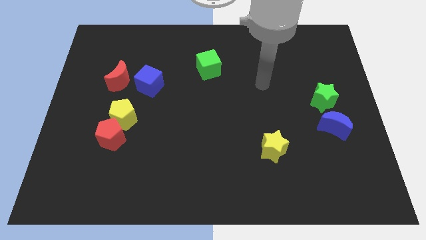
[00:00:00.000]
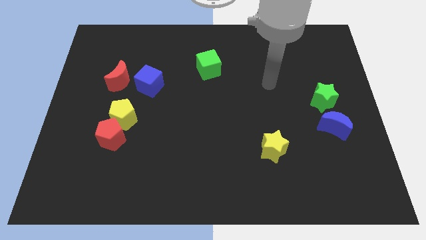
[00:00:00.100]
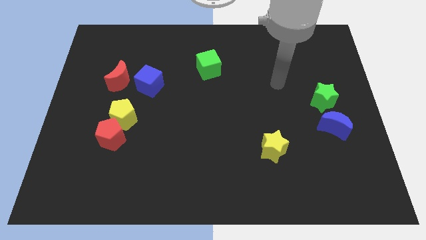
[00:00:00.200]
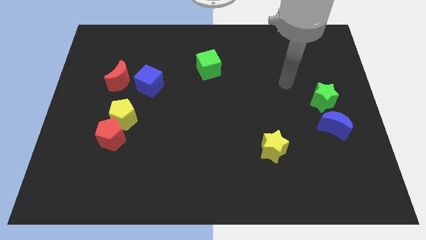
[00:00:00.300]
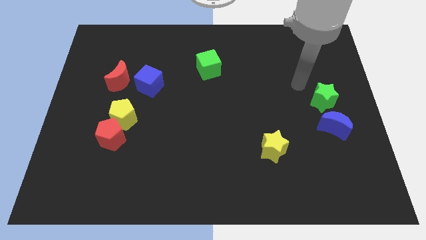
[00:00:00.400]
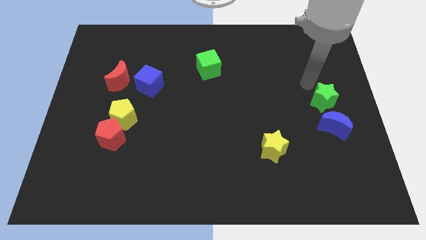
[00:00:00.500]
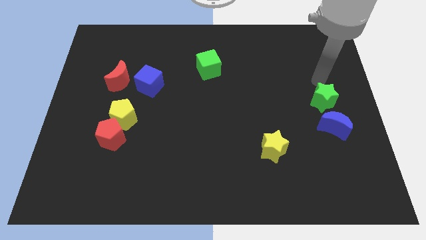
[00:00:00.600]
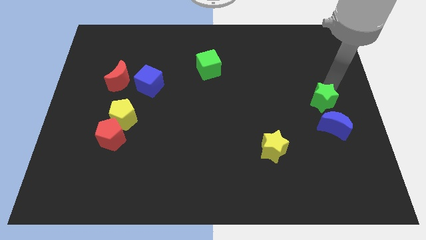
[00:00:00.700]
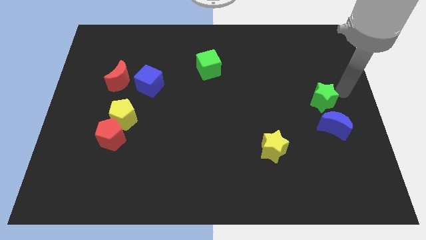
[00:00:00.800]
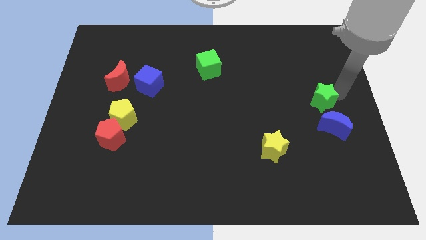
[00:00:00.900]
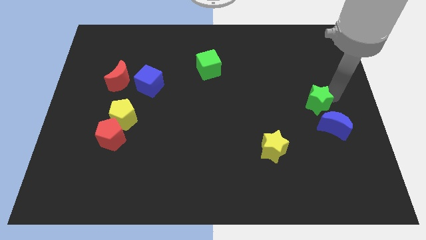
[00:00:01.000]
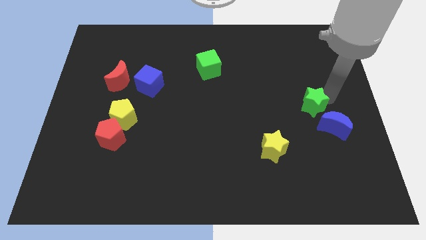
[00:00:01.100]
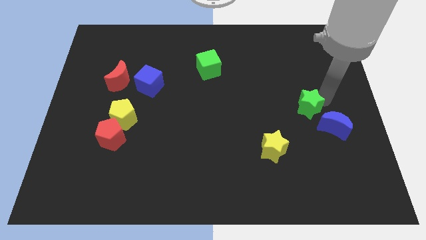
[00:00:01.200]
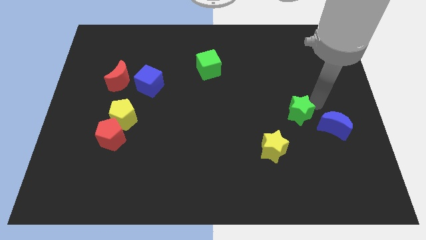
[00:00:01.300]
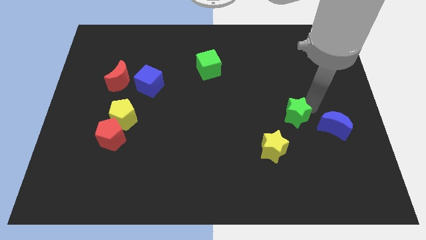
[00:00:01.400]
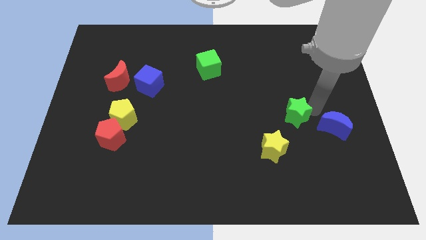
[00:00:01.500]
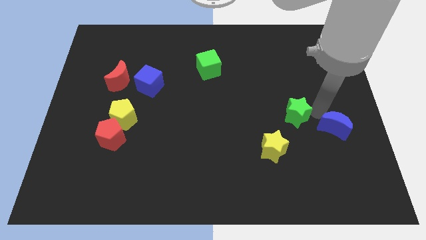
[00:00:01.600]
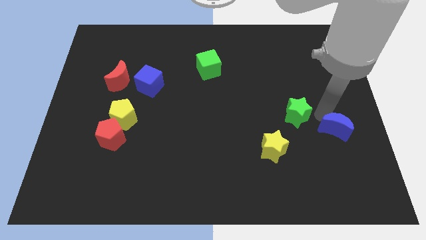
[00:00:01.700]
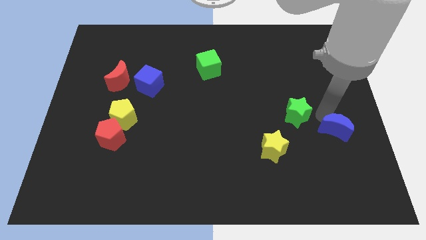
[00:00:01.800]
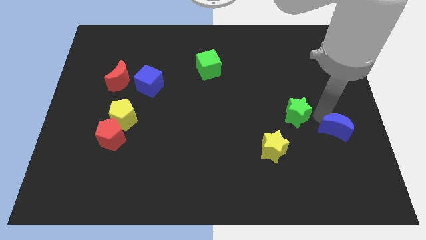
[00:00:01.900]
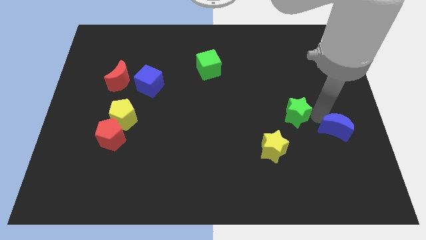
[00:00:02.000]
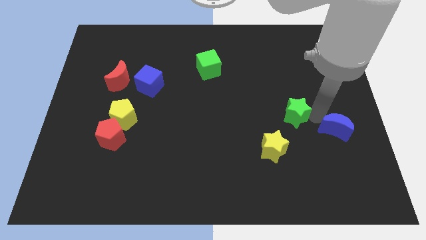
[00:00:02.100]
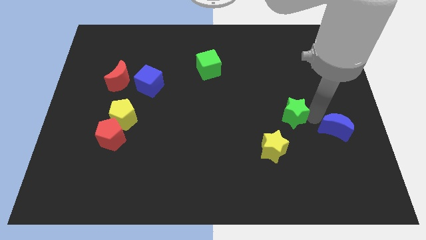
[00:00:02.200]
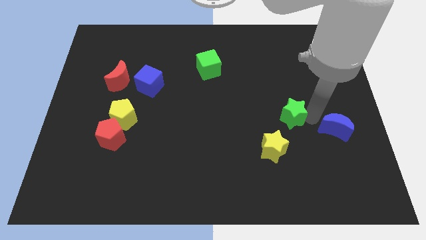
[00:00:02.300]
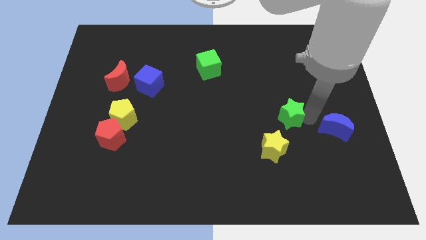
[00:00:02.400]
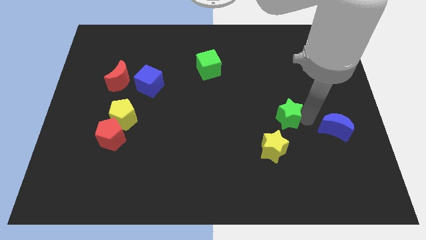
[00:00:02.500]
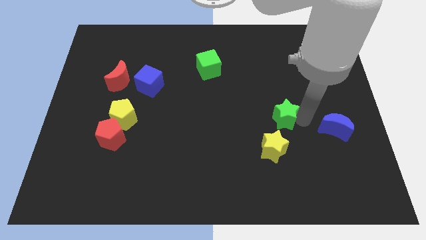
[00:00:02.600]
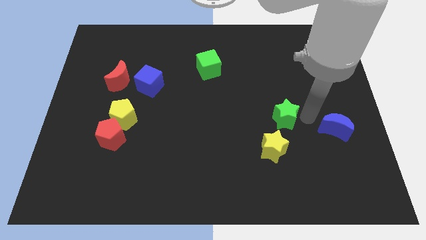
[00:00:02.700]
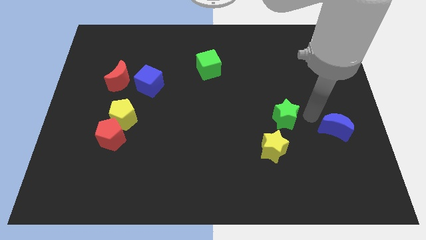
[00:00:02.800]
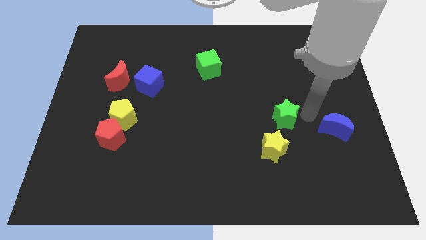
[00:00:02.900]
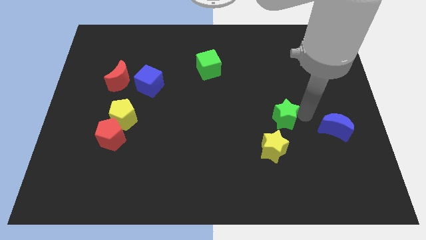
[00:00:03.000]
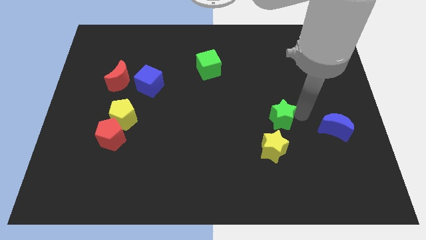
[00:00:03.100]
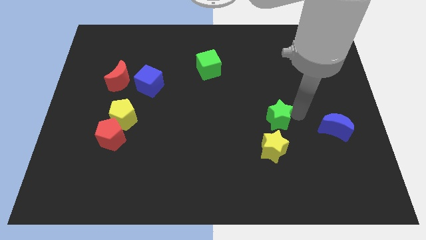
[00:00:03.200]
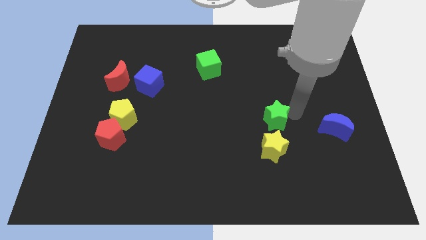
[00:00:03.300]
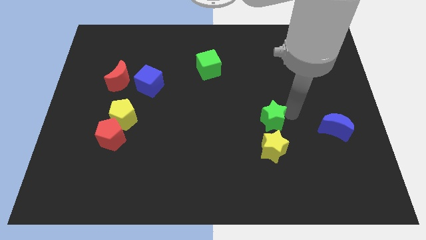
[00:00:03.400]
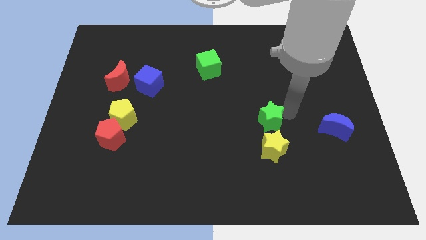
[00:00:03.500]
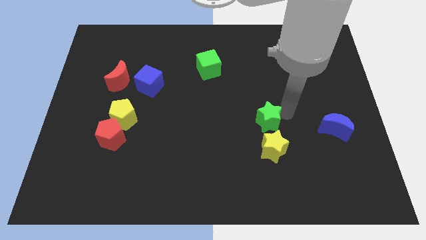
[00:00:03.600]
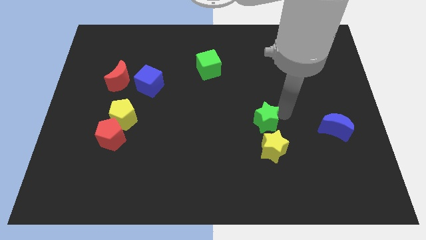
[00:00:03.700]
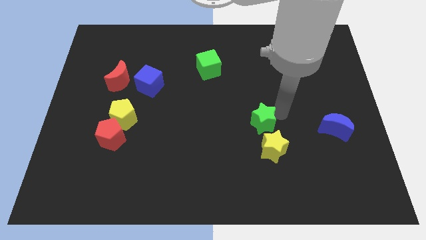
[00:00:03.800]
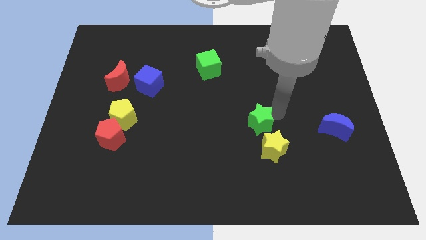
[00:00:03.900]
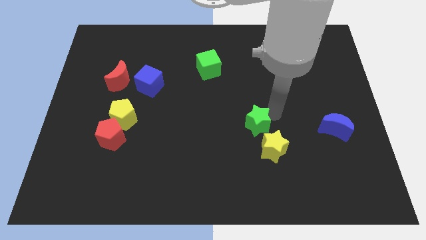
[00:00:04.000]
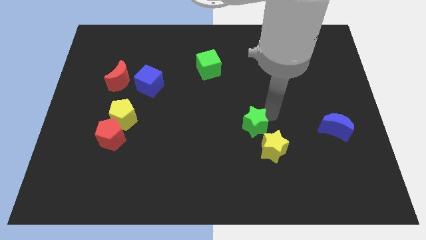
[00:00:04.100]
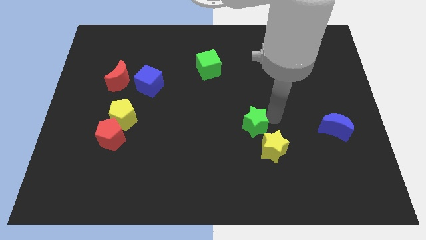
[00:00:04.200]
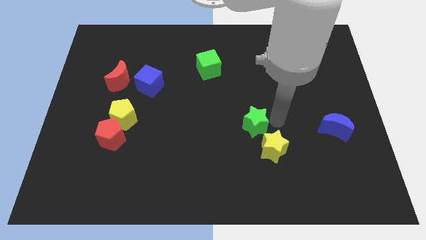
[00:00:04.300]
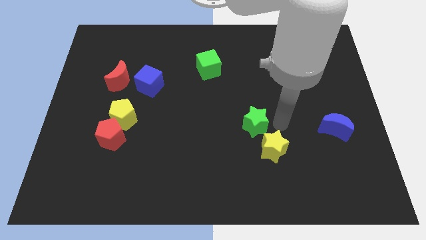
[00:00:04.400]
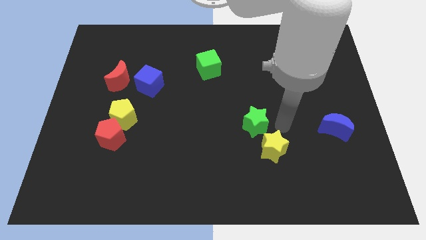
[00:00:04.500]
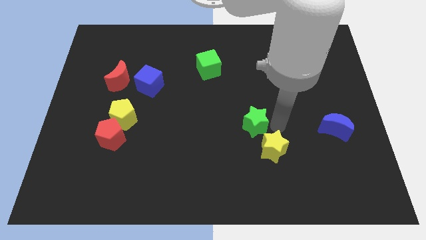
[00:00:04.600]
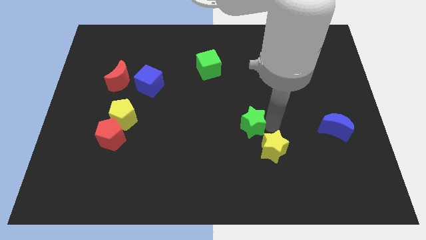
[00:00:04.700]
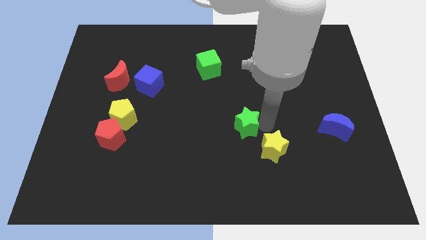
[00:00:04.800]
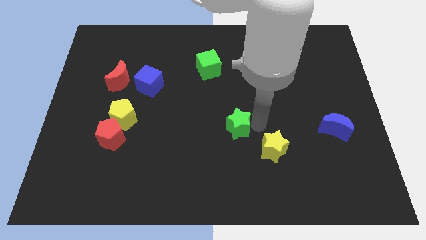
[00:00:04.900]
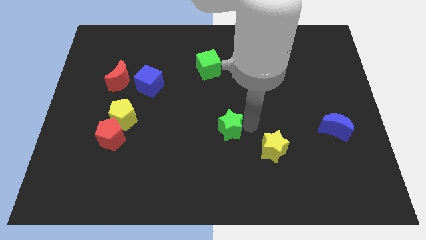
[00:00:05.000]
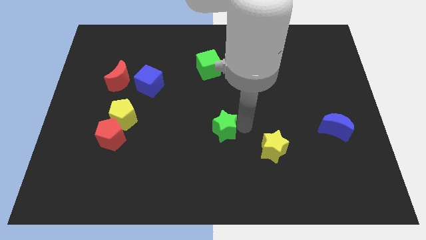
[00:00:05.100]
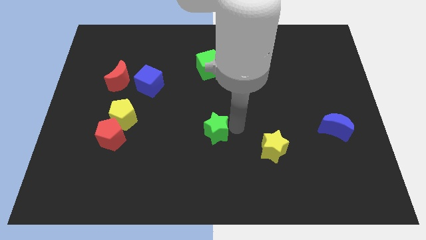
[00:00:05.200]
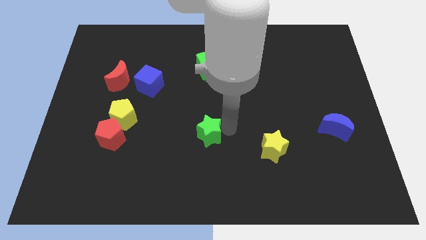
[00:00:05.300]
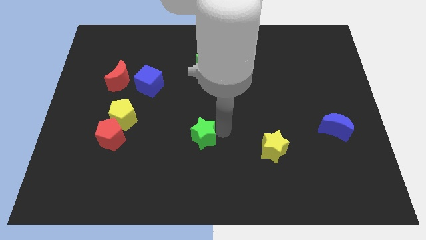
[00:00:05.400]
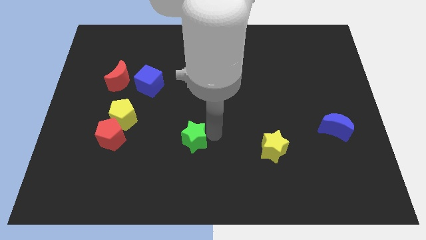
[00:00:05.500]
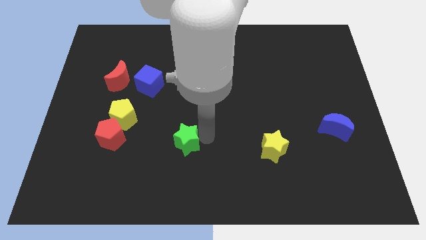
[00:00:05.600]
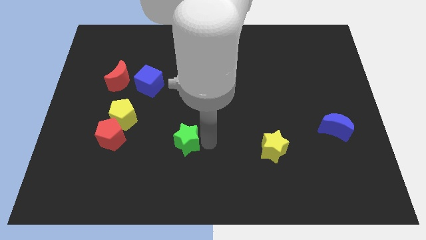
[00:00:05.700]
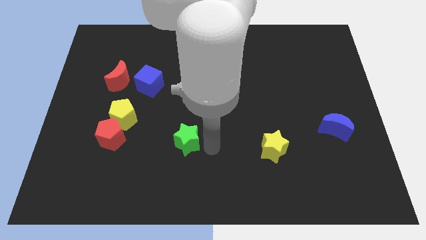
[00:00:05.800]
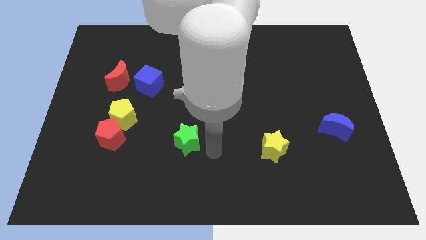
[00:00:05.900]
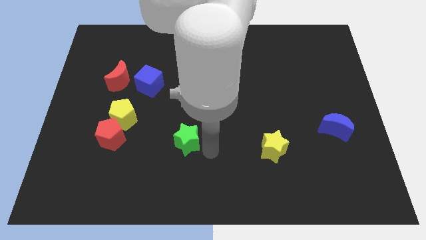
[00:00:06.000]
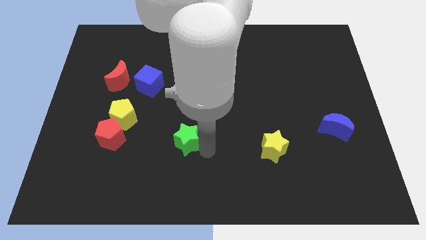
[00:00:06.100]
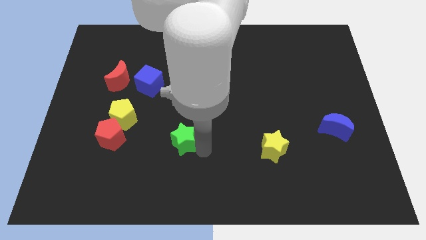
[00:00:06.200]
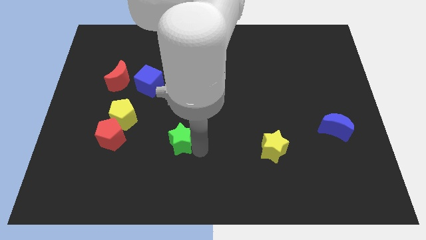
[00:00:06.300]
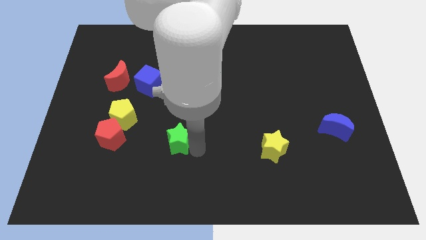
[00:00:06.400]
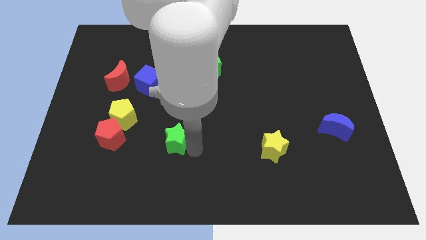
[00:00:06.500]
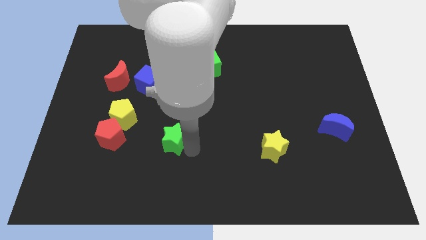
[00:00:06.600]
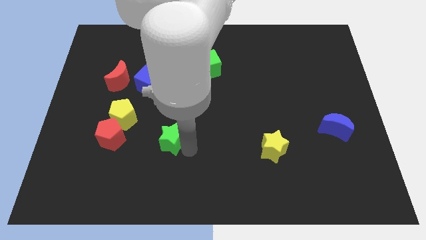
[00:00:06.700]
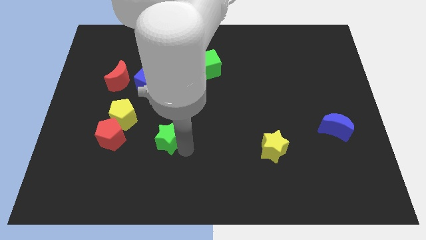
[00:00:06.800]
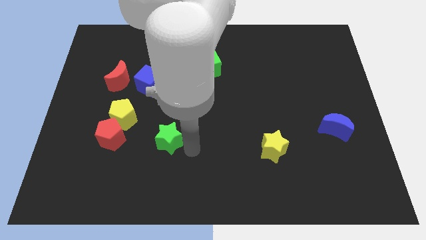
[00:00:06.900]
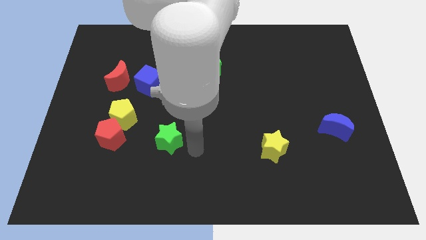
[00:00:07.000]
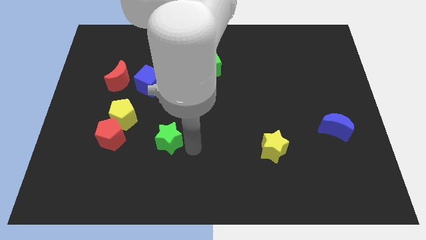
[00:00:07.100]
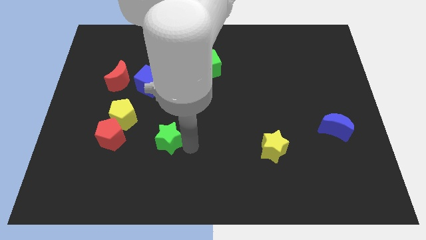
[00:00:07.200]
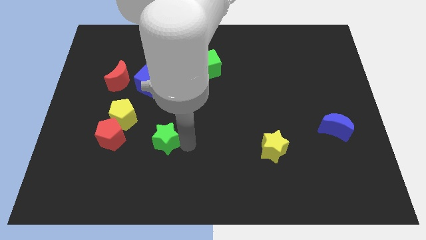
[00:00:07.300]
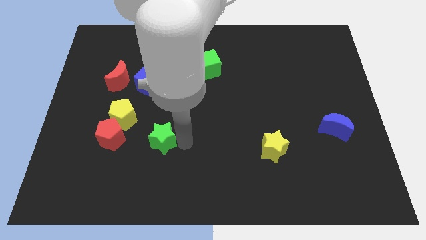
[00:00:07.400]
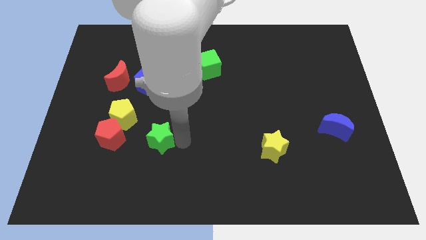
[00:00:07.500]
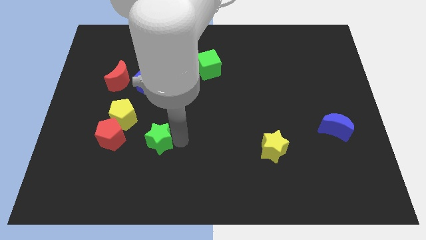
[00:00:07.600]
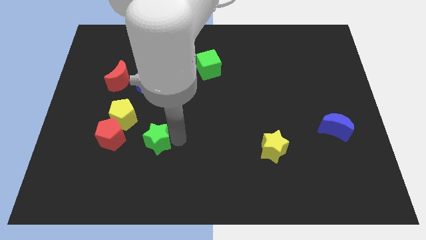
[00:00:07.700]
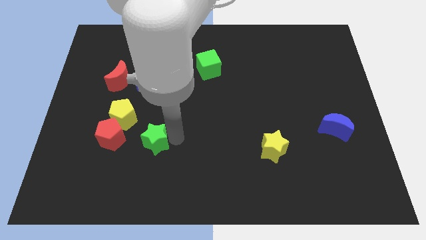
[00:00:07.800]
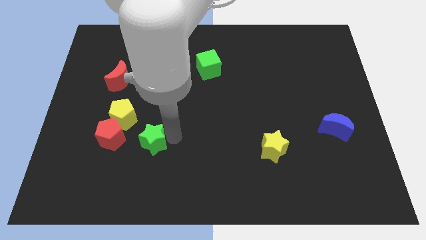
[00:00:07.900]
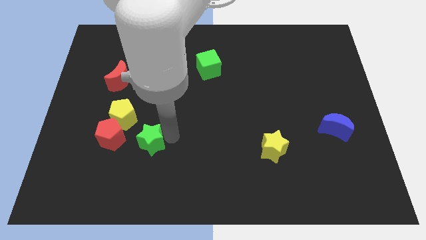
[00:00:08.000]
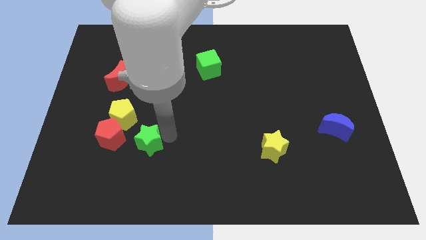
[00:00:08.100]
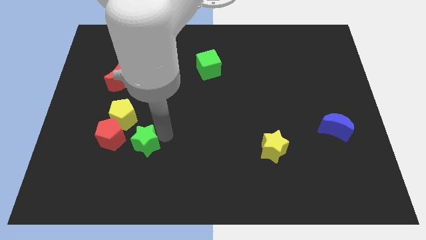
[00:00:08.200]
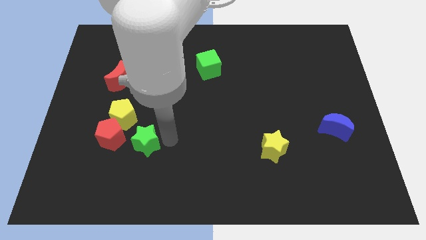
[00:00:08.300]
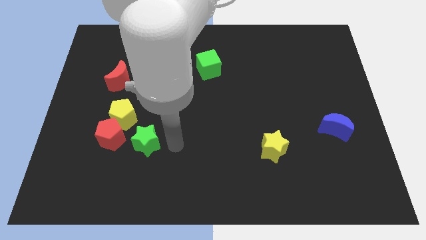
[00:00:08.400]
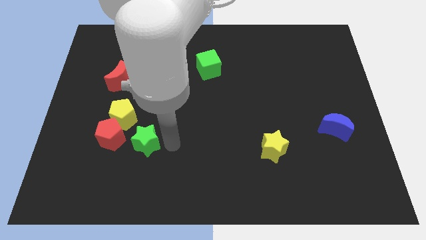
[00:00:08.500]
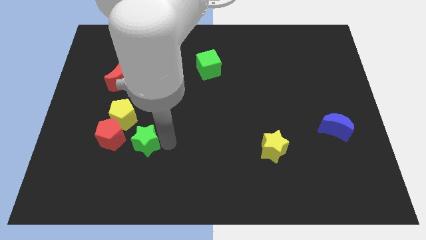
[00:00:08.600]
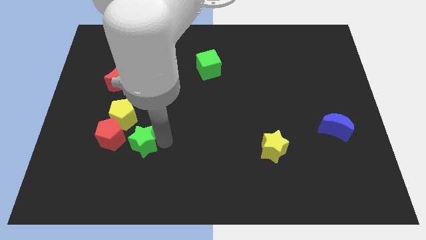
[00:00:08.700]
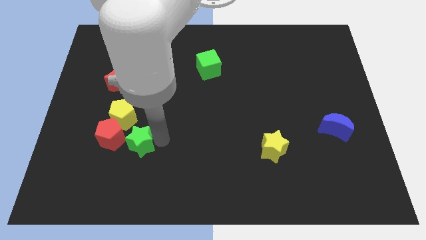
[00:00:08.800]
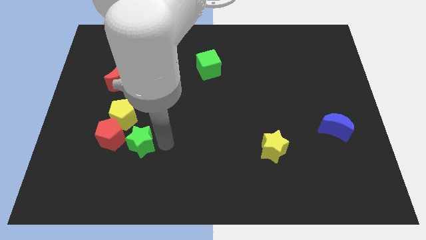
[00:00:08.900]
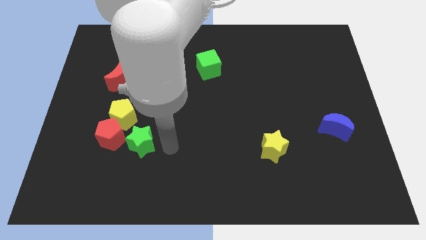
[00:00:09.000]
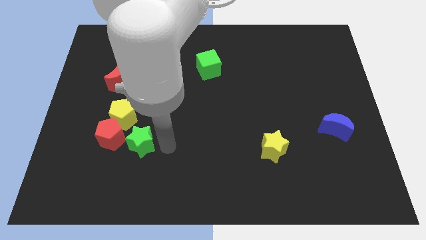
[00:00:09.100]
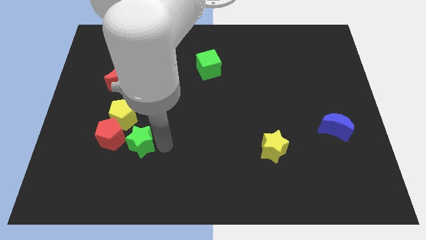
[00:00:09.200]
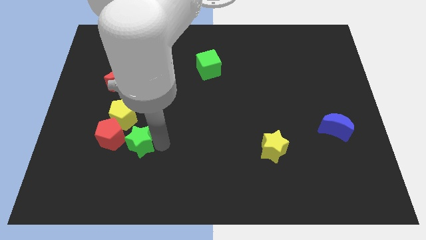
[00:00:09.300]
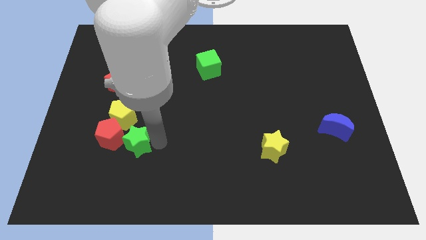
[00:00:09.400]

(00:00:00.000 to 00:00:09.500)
slide the green star towards the red pentagon
